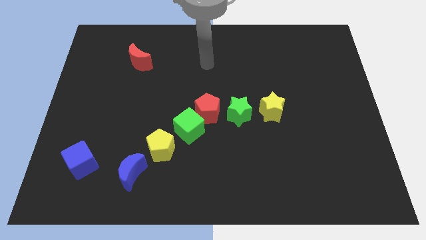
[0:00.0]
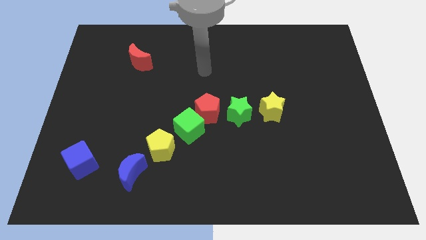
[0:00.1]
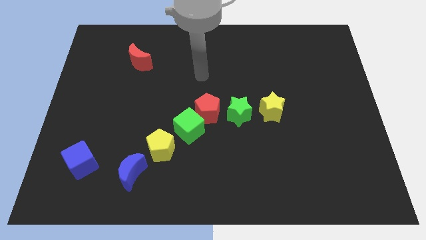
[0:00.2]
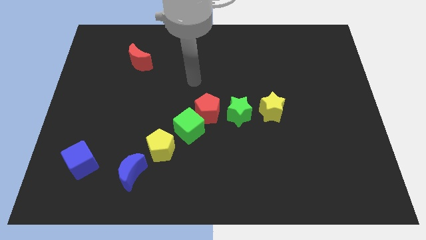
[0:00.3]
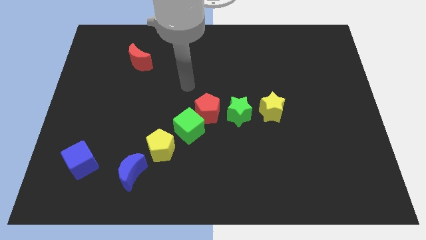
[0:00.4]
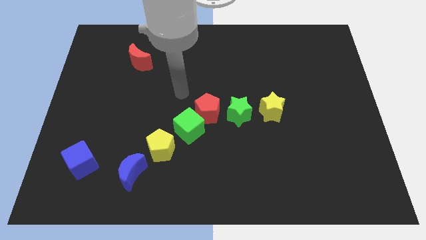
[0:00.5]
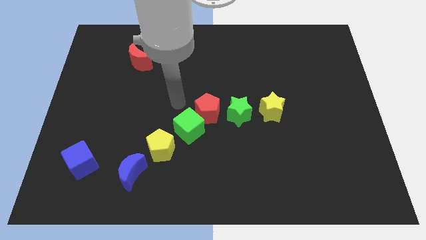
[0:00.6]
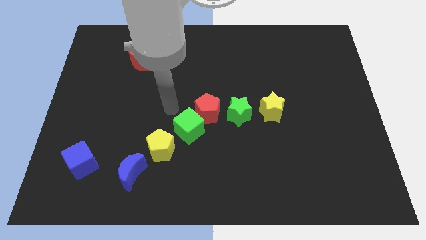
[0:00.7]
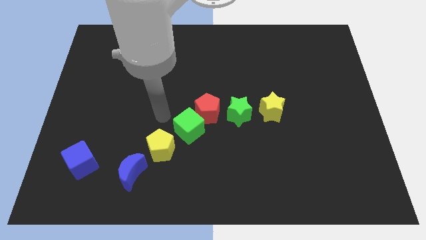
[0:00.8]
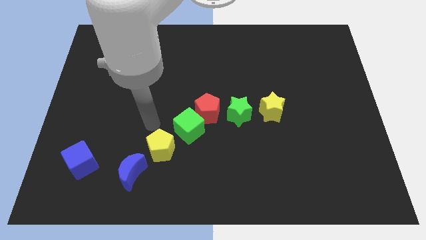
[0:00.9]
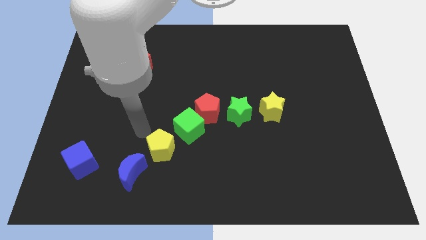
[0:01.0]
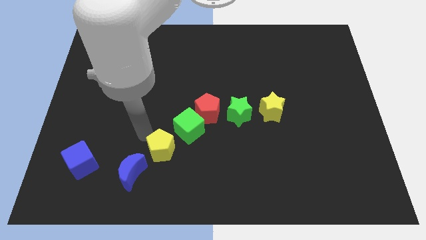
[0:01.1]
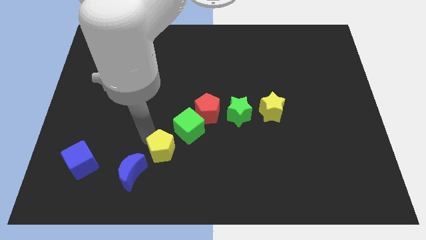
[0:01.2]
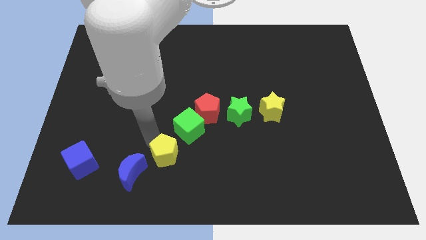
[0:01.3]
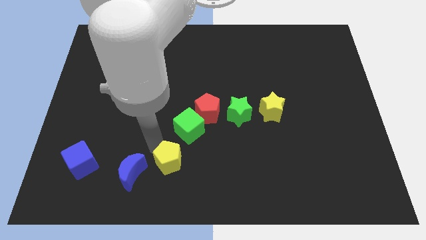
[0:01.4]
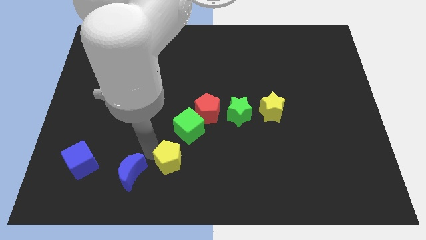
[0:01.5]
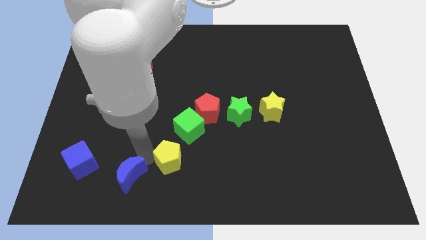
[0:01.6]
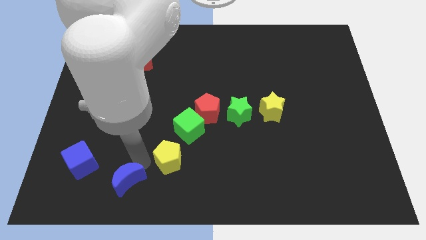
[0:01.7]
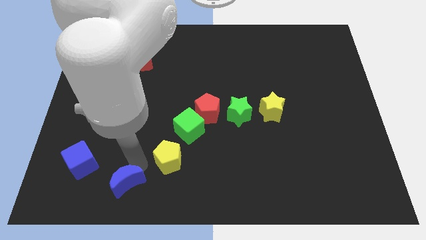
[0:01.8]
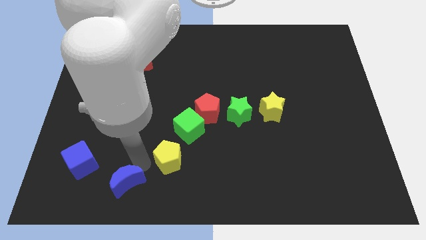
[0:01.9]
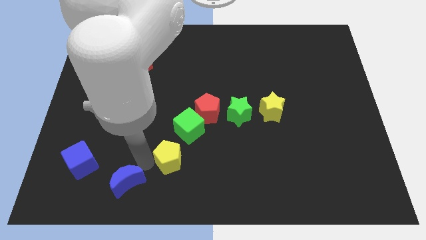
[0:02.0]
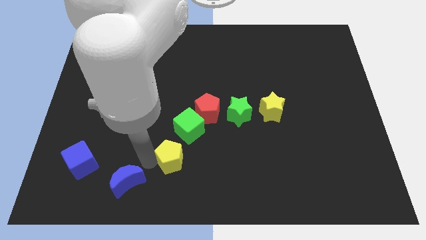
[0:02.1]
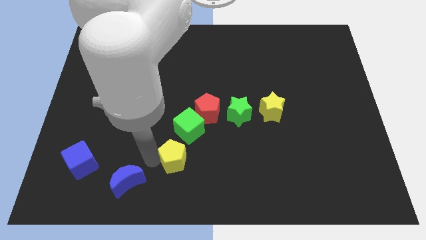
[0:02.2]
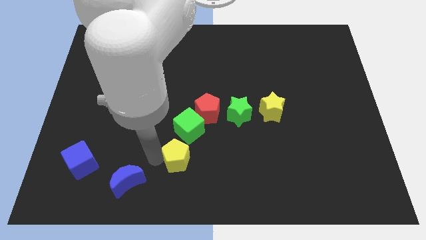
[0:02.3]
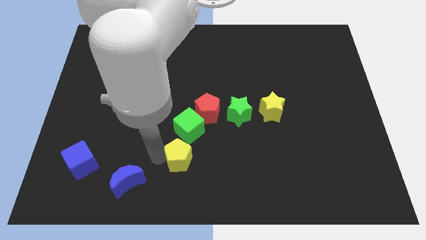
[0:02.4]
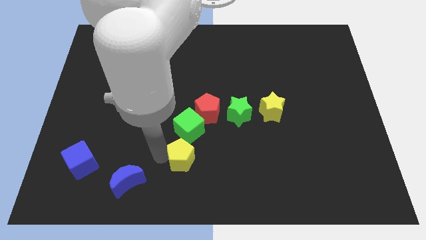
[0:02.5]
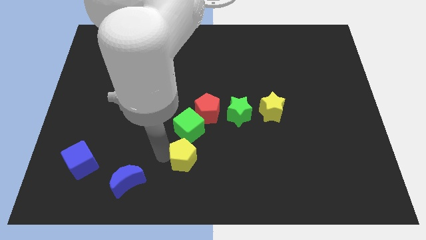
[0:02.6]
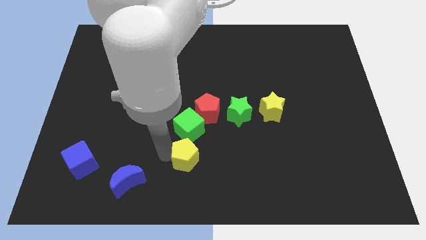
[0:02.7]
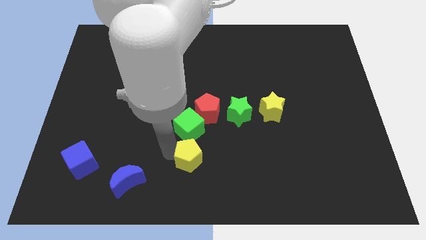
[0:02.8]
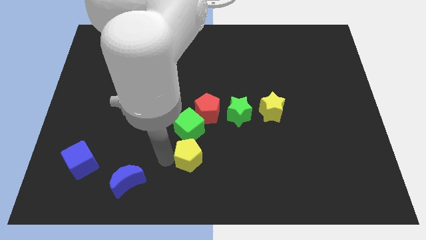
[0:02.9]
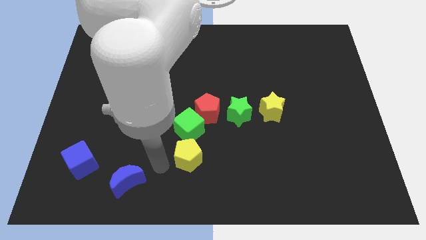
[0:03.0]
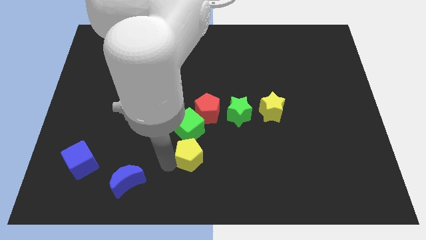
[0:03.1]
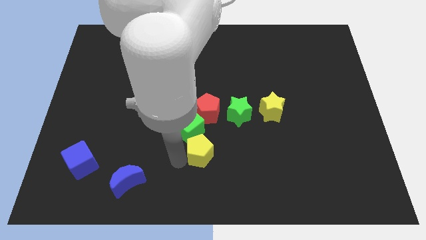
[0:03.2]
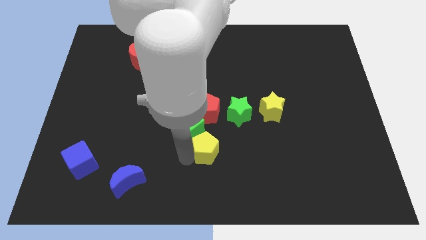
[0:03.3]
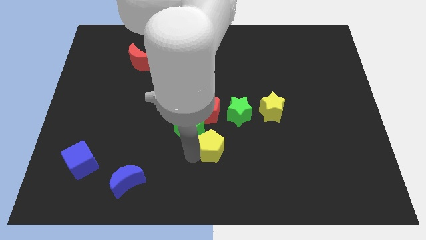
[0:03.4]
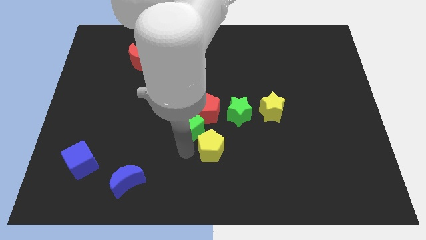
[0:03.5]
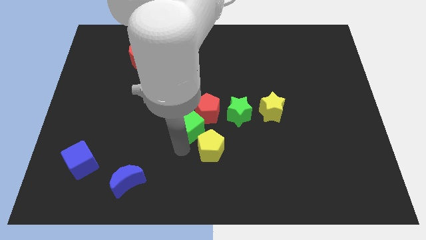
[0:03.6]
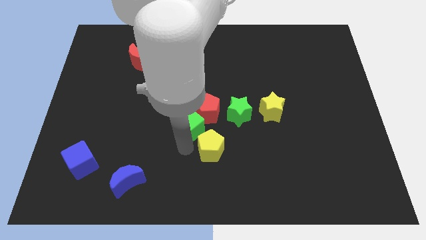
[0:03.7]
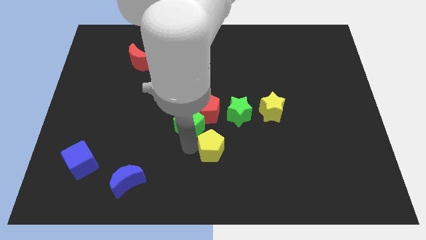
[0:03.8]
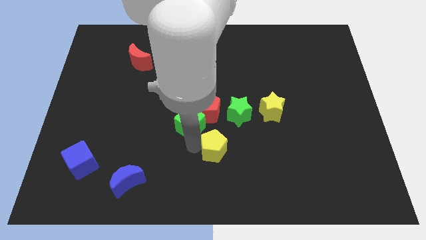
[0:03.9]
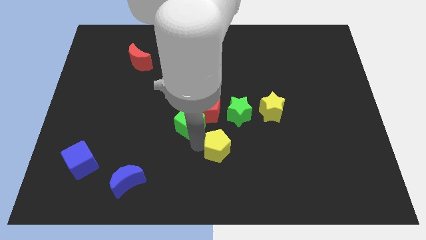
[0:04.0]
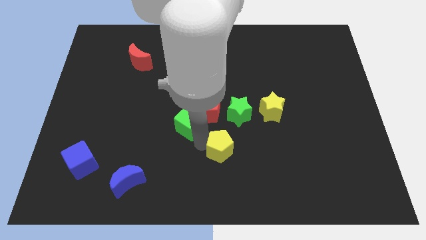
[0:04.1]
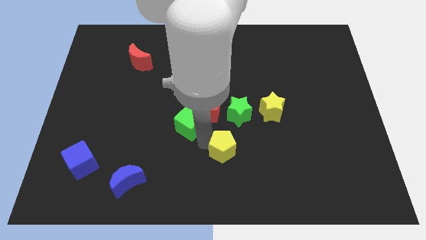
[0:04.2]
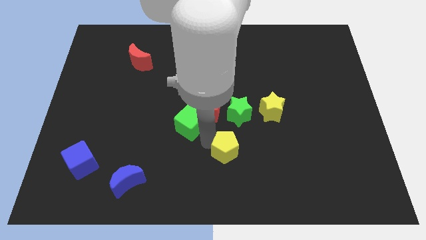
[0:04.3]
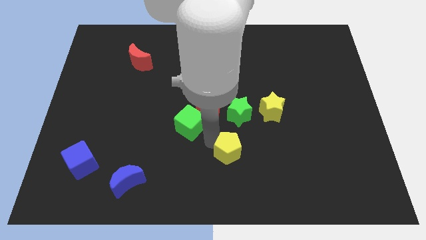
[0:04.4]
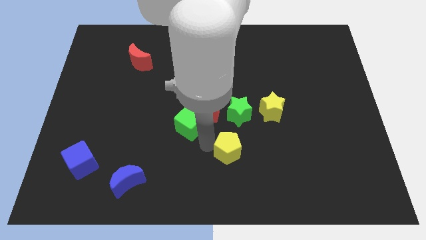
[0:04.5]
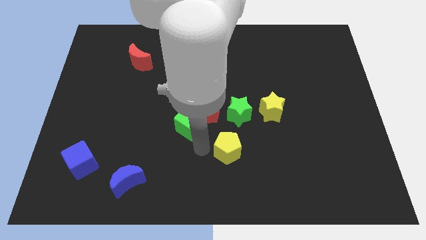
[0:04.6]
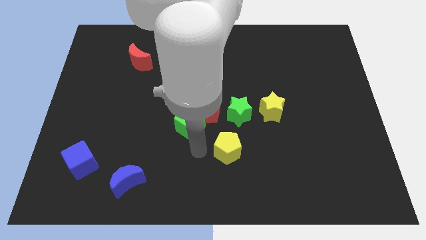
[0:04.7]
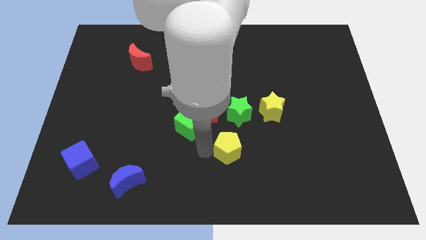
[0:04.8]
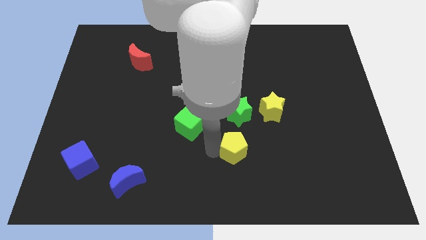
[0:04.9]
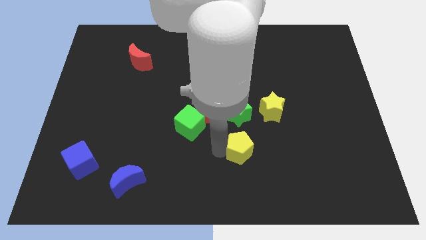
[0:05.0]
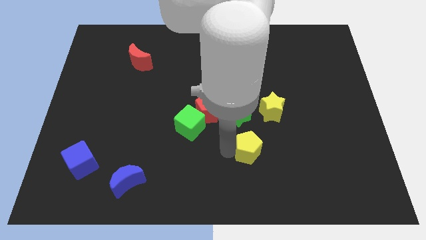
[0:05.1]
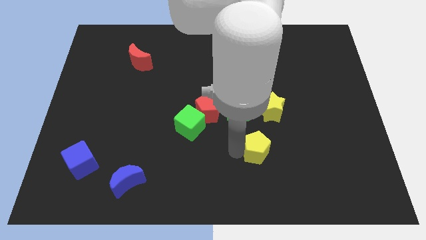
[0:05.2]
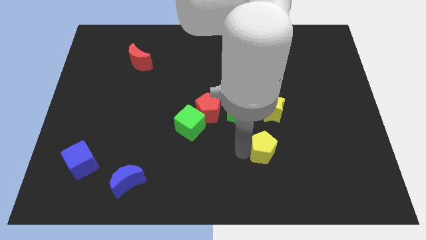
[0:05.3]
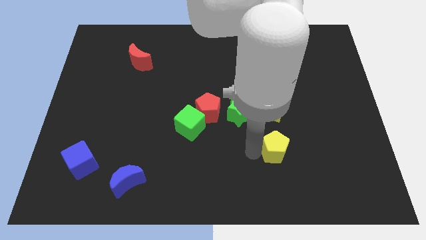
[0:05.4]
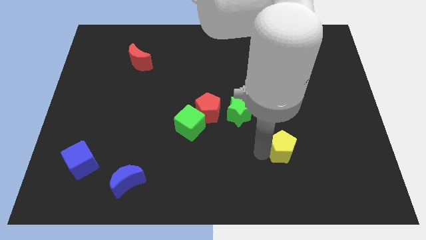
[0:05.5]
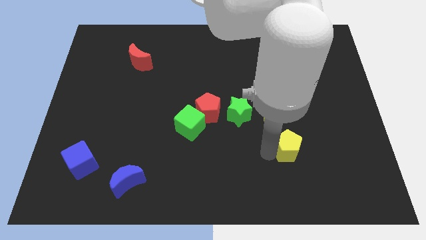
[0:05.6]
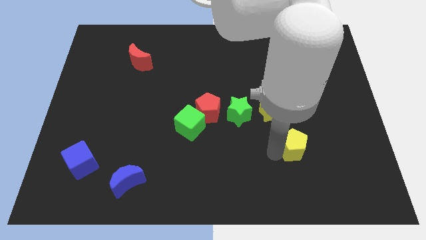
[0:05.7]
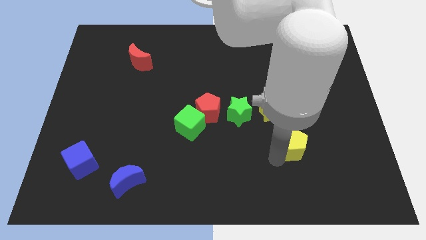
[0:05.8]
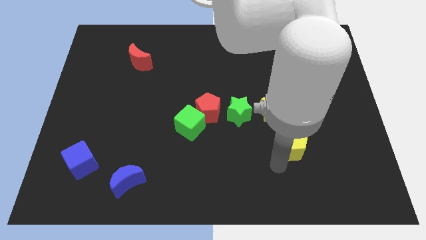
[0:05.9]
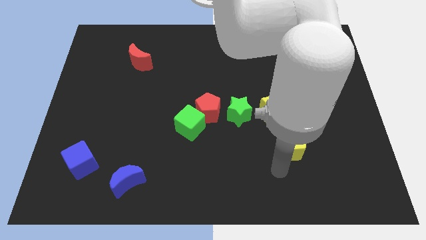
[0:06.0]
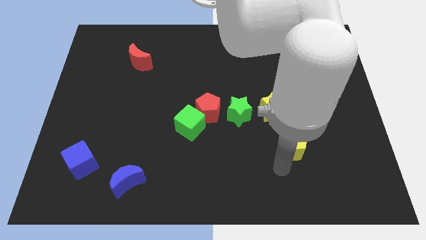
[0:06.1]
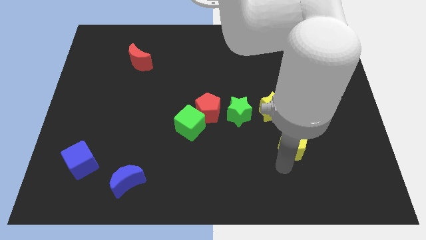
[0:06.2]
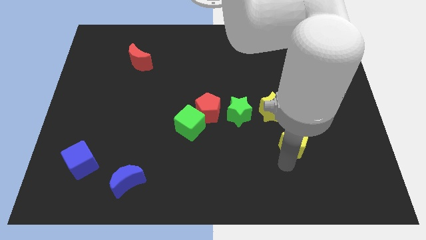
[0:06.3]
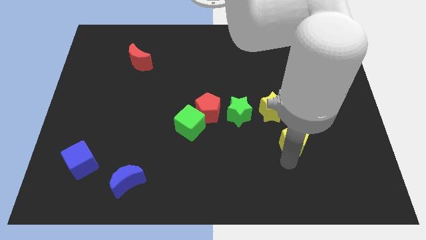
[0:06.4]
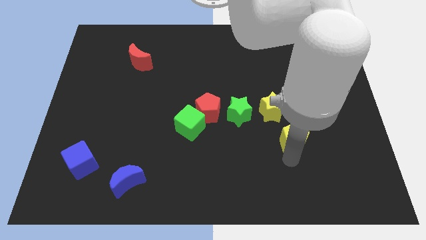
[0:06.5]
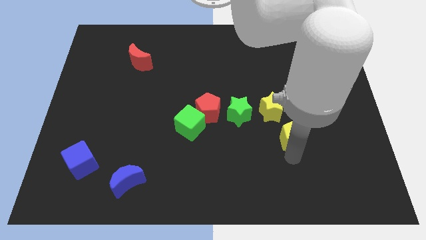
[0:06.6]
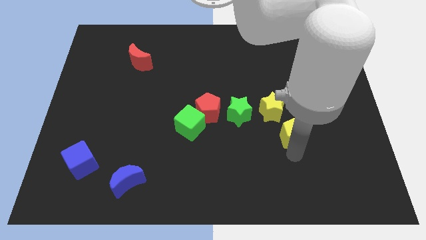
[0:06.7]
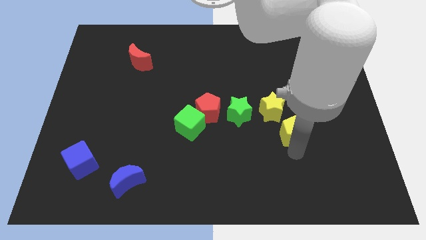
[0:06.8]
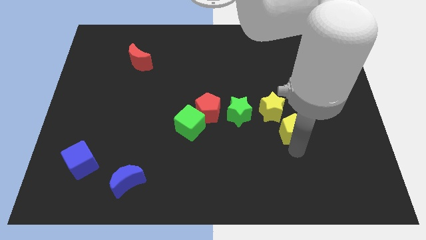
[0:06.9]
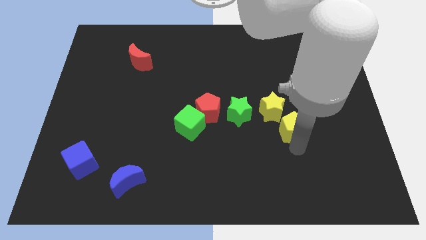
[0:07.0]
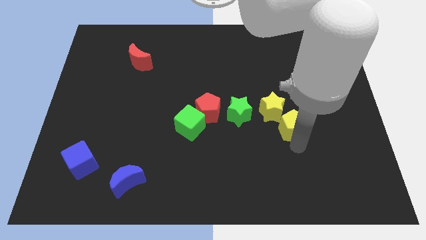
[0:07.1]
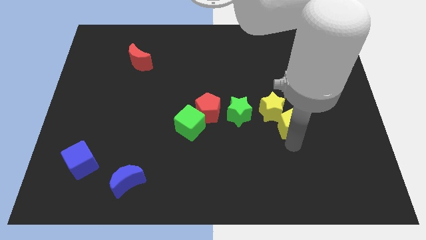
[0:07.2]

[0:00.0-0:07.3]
slide the yellow pentagon to the right of the yellow star
